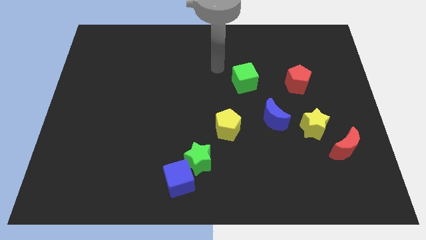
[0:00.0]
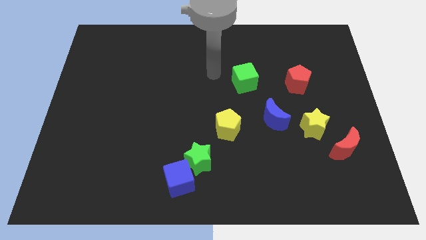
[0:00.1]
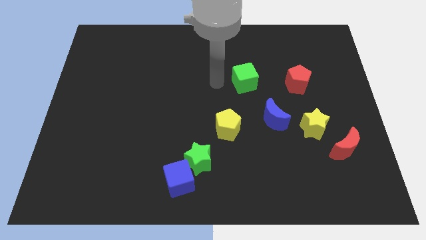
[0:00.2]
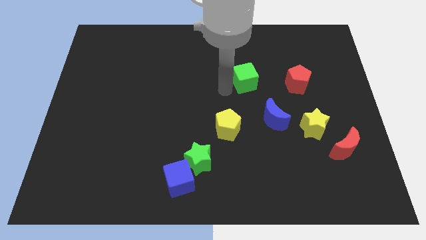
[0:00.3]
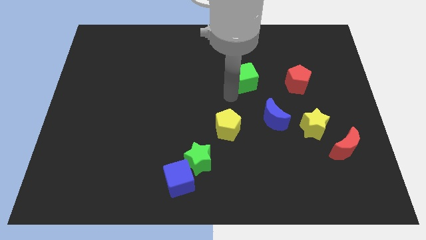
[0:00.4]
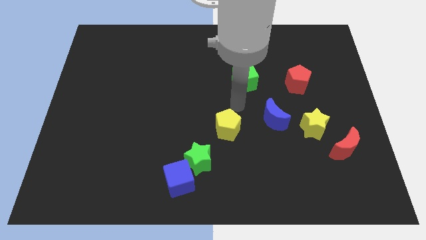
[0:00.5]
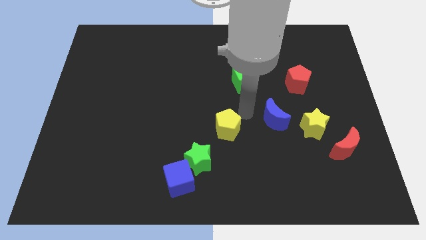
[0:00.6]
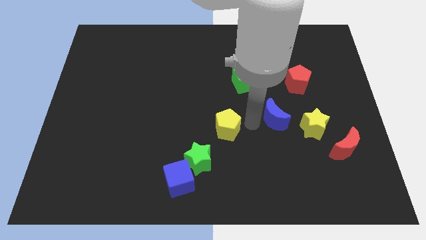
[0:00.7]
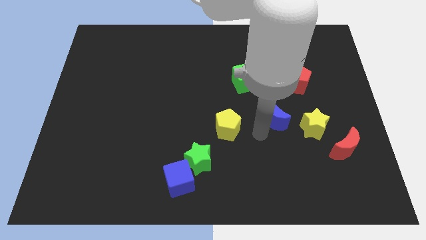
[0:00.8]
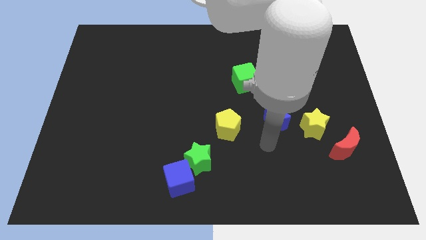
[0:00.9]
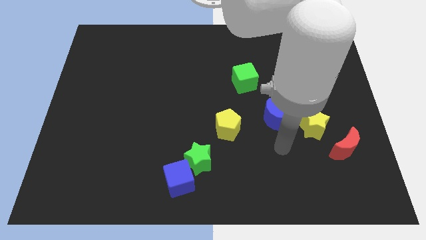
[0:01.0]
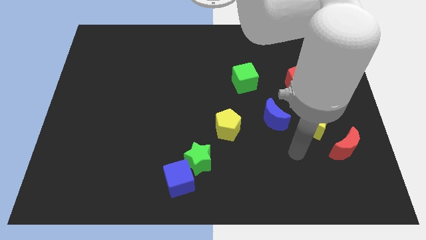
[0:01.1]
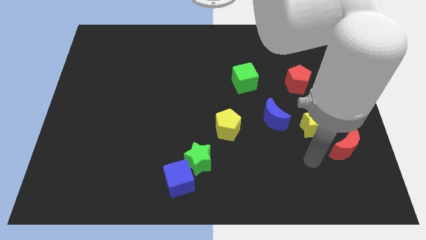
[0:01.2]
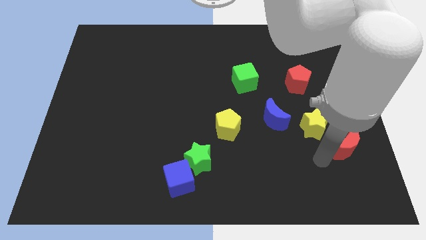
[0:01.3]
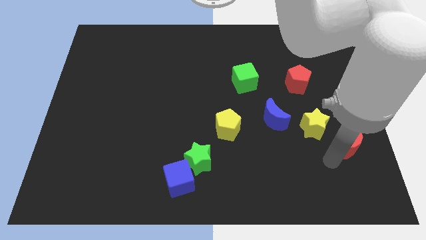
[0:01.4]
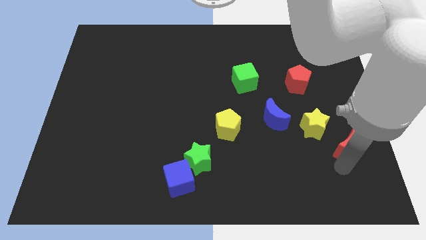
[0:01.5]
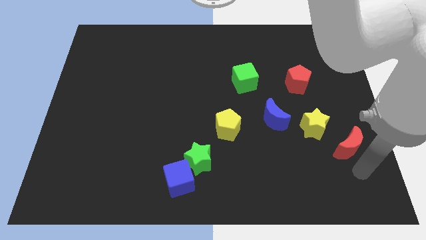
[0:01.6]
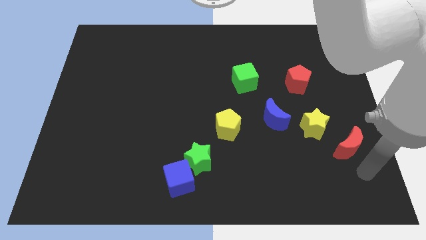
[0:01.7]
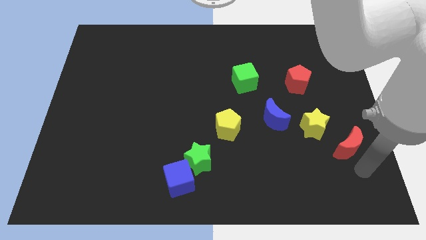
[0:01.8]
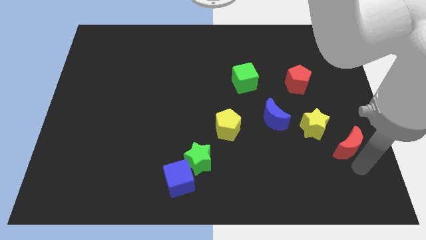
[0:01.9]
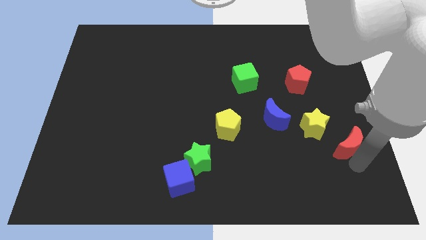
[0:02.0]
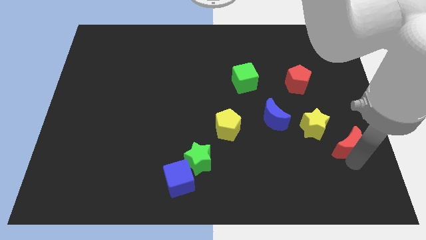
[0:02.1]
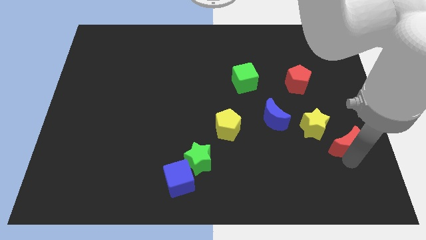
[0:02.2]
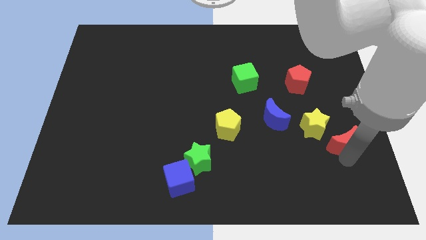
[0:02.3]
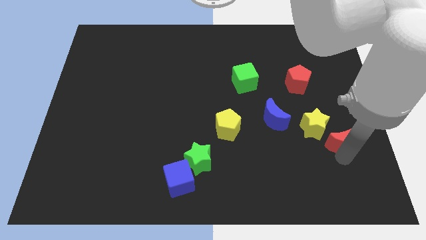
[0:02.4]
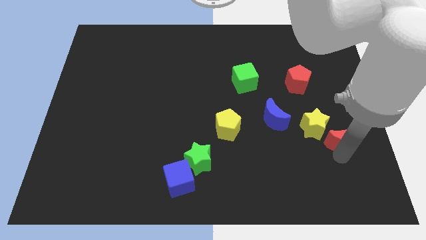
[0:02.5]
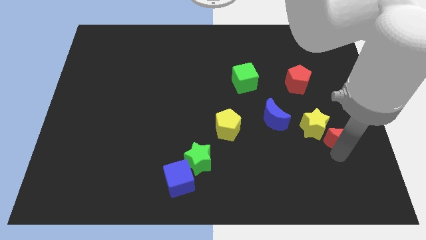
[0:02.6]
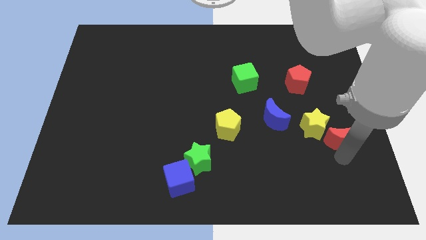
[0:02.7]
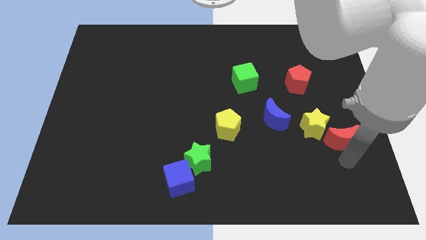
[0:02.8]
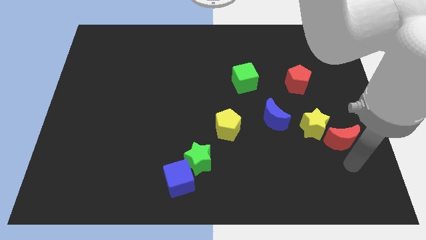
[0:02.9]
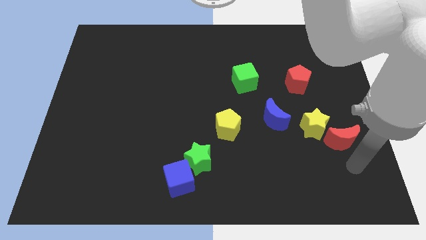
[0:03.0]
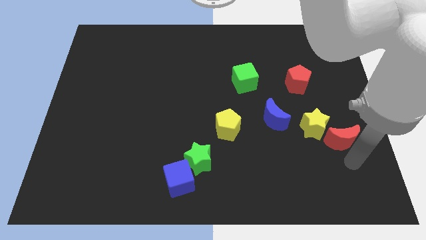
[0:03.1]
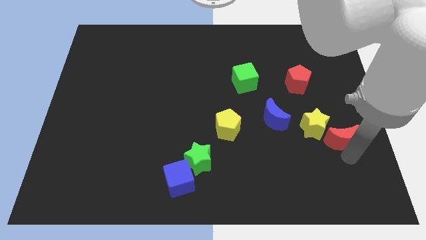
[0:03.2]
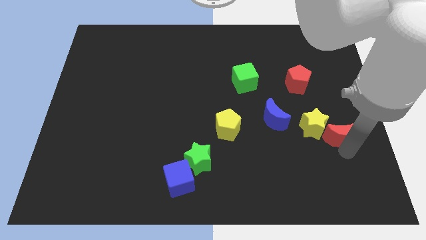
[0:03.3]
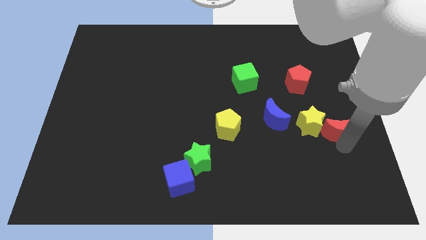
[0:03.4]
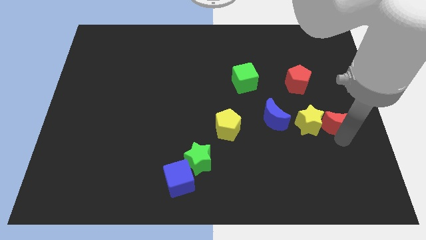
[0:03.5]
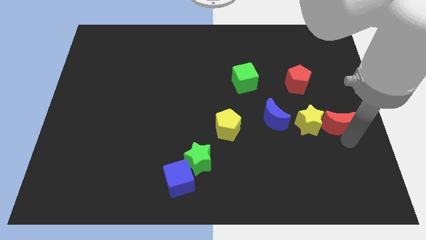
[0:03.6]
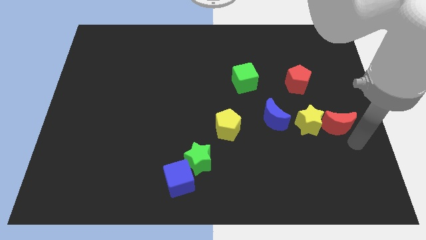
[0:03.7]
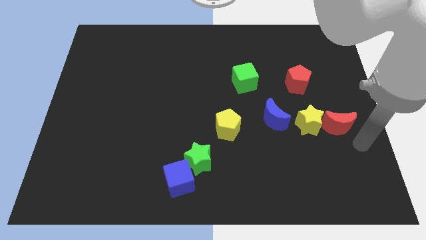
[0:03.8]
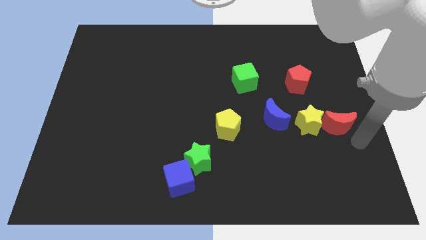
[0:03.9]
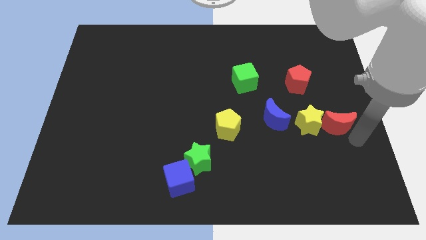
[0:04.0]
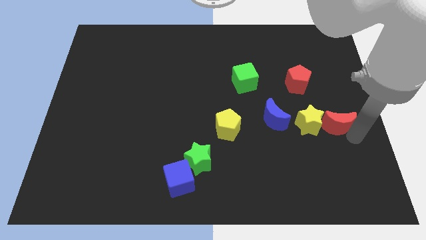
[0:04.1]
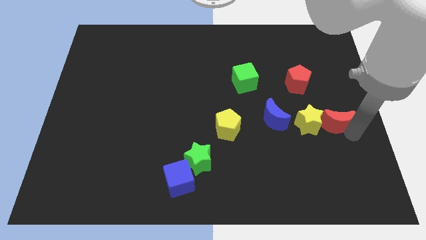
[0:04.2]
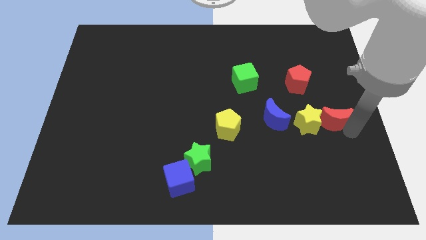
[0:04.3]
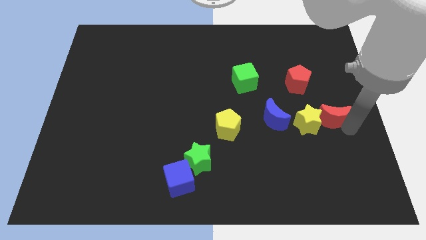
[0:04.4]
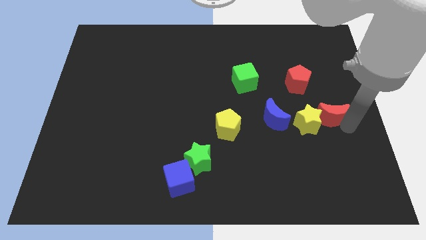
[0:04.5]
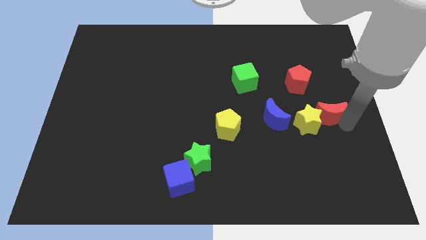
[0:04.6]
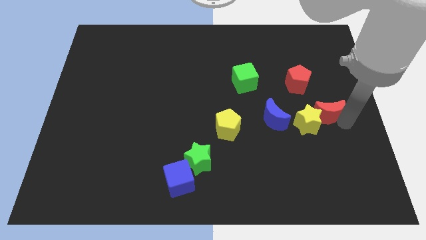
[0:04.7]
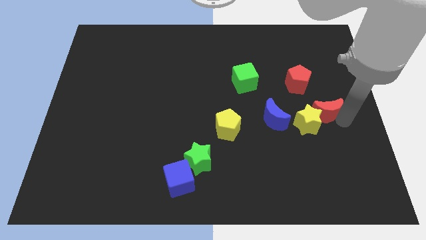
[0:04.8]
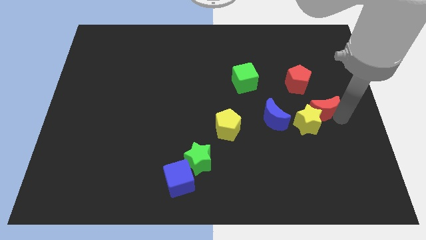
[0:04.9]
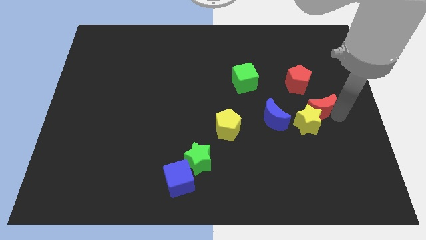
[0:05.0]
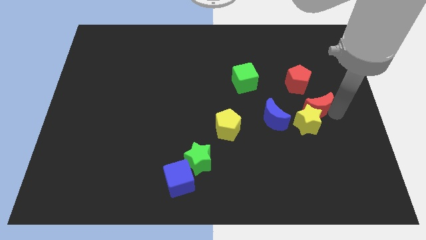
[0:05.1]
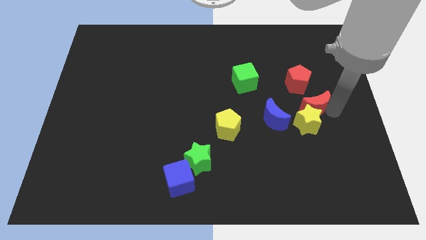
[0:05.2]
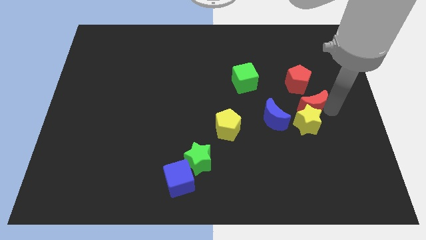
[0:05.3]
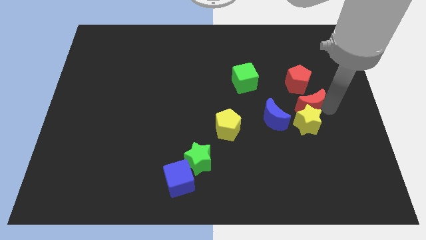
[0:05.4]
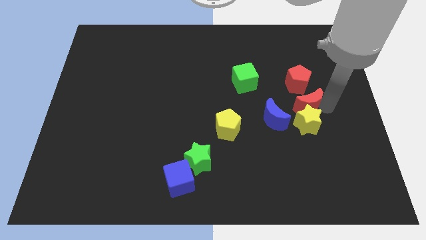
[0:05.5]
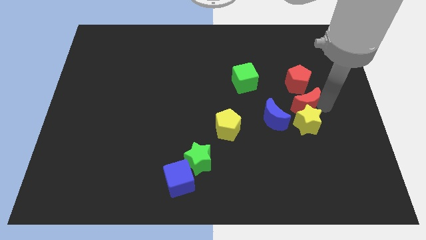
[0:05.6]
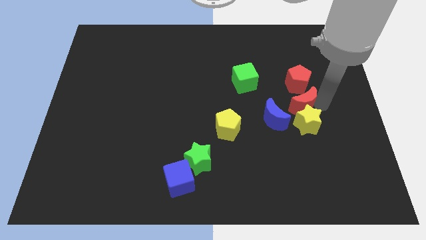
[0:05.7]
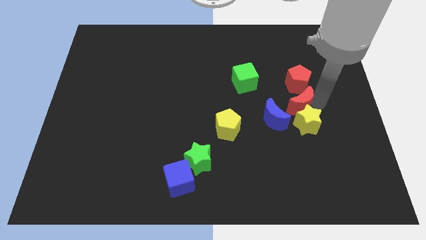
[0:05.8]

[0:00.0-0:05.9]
slide the red moon to the bottom left side of the red pentagon
